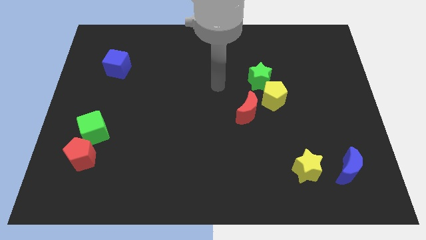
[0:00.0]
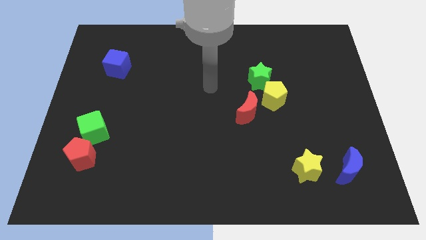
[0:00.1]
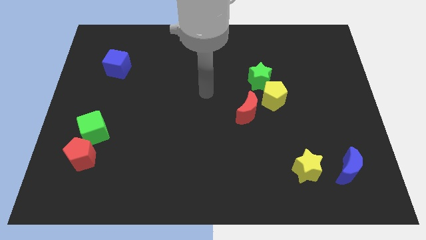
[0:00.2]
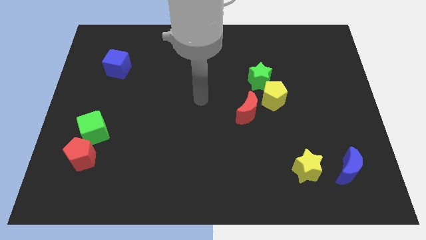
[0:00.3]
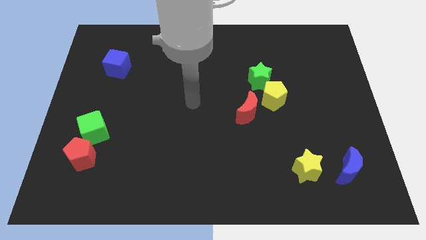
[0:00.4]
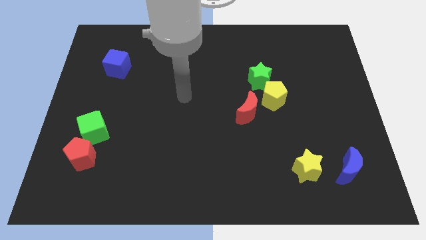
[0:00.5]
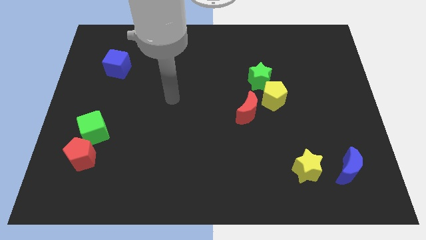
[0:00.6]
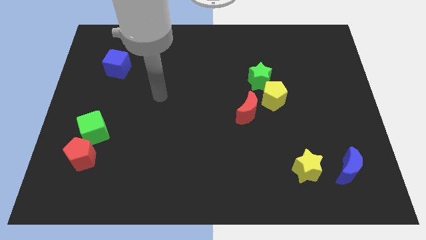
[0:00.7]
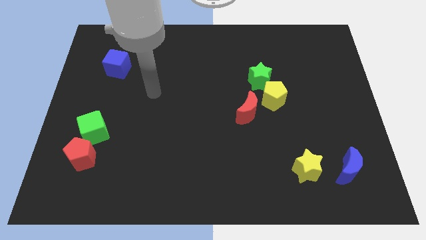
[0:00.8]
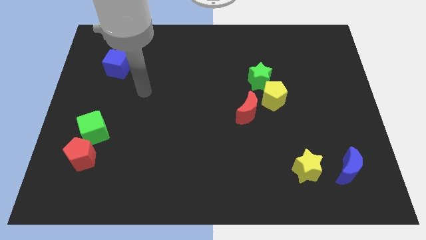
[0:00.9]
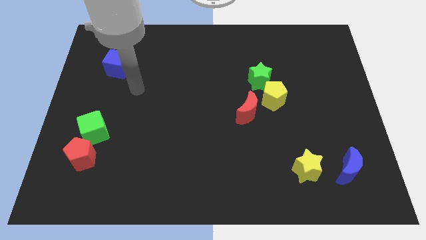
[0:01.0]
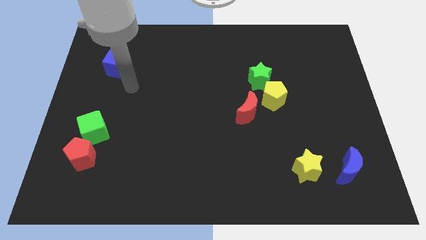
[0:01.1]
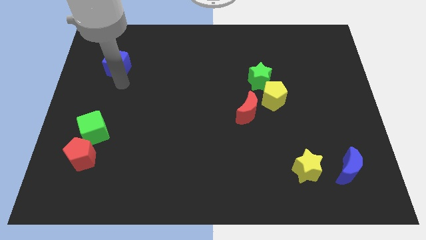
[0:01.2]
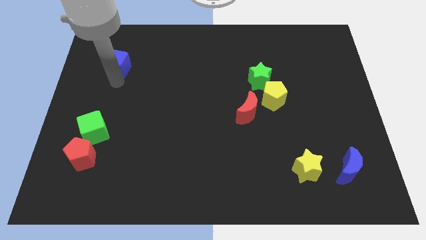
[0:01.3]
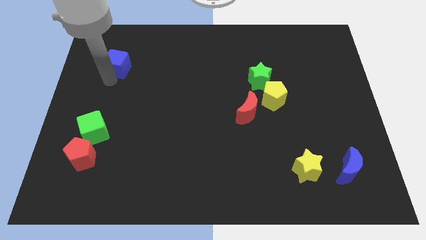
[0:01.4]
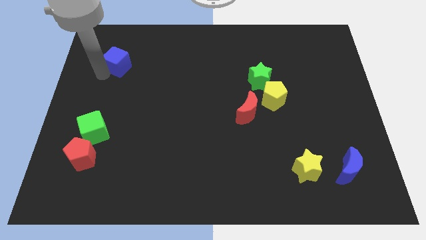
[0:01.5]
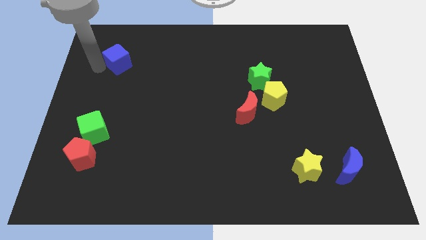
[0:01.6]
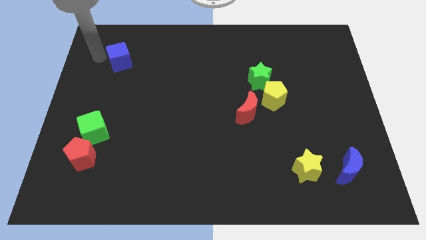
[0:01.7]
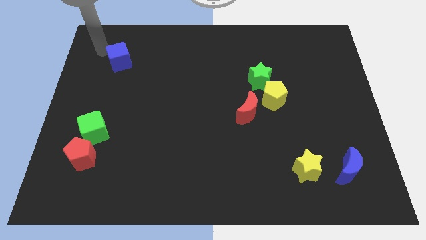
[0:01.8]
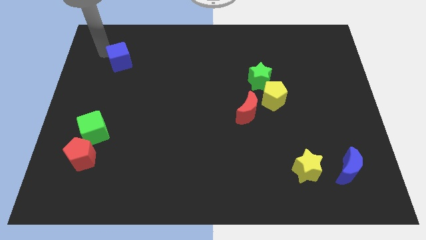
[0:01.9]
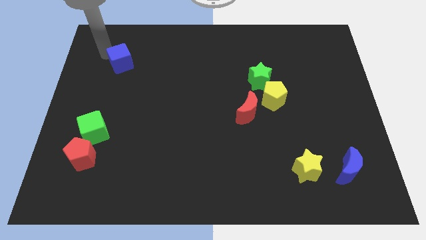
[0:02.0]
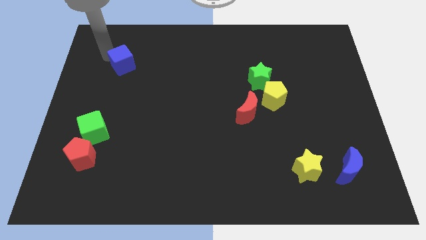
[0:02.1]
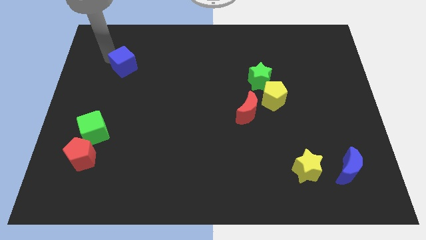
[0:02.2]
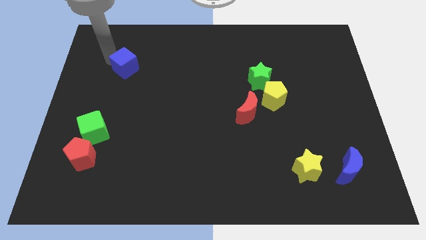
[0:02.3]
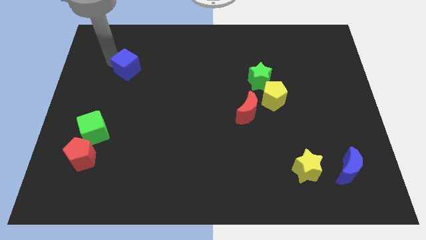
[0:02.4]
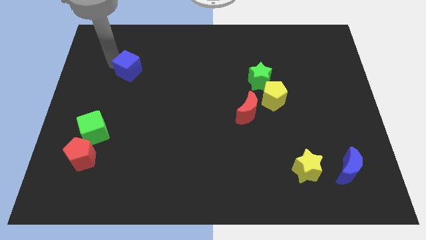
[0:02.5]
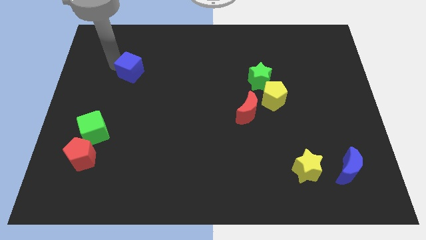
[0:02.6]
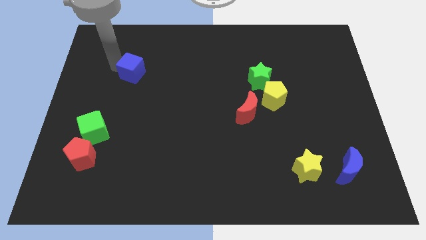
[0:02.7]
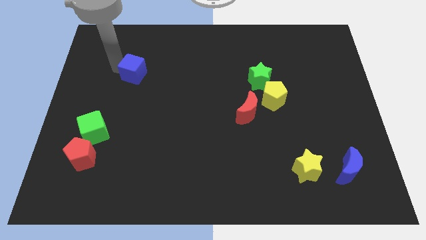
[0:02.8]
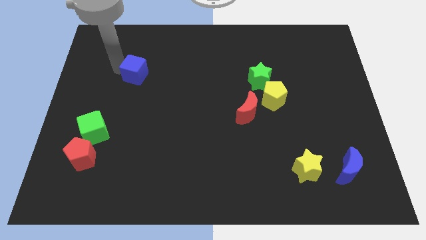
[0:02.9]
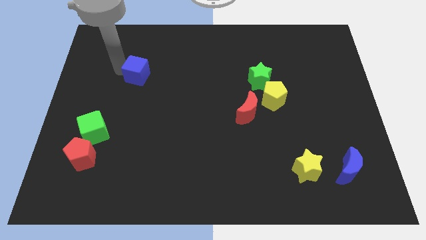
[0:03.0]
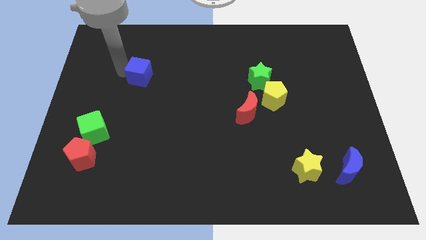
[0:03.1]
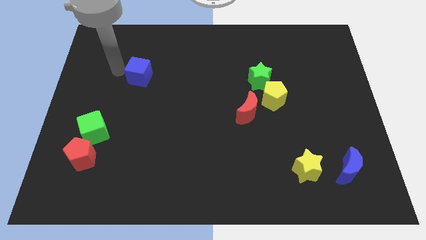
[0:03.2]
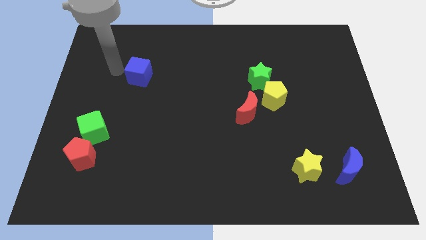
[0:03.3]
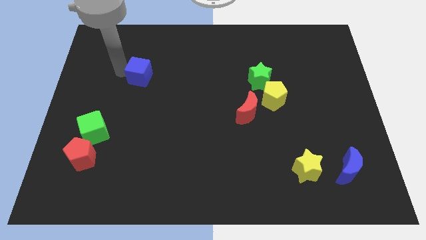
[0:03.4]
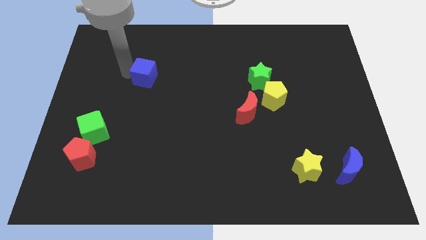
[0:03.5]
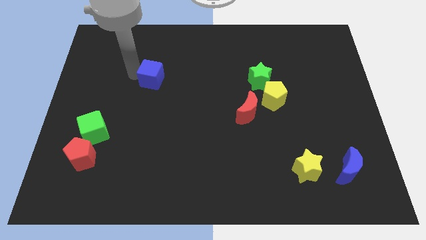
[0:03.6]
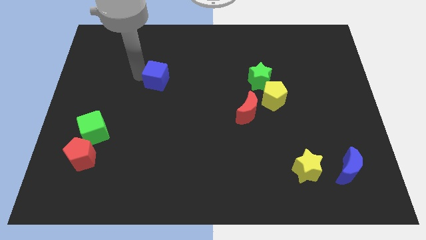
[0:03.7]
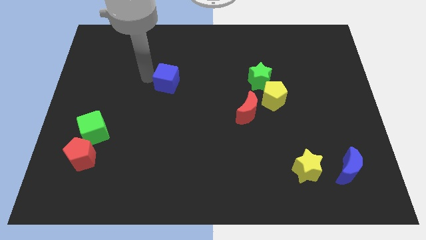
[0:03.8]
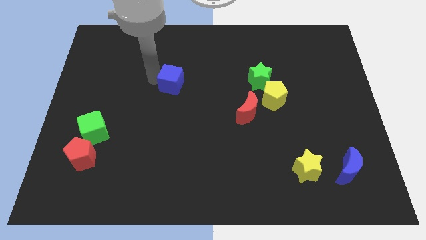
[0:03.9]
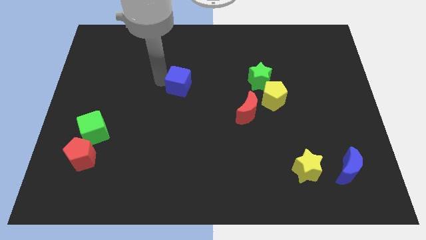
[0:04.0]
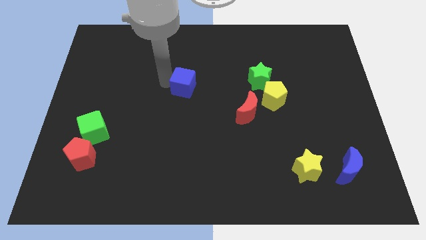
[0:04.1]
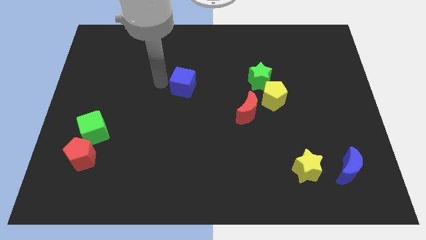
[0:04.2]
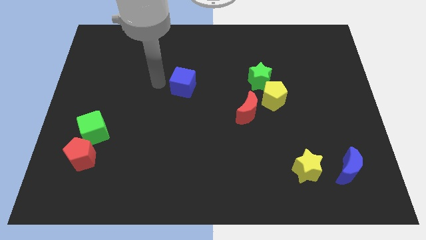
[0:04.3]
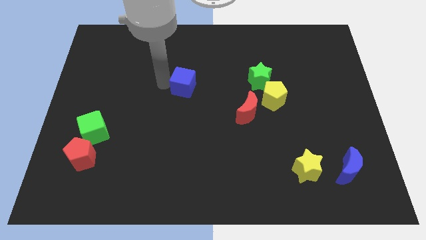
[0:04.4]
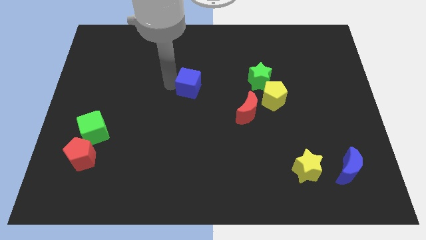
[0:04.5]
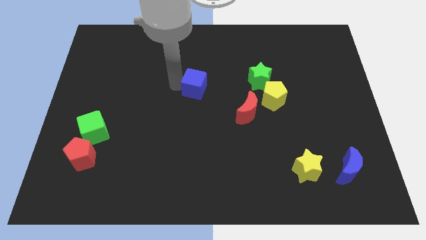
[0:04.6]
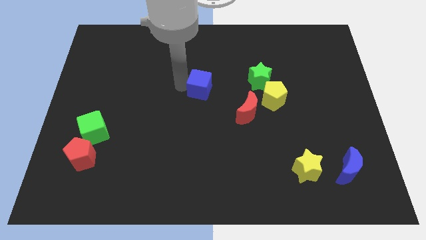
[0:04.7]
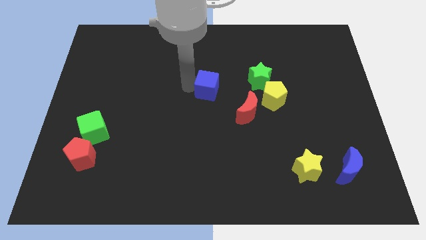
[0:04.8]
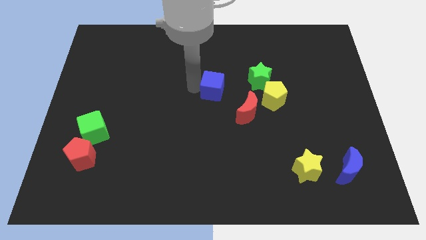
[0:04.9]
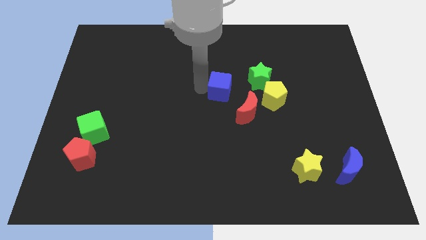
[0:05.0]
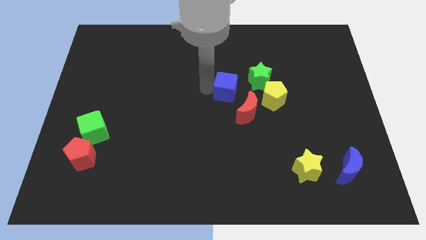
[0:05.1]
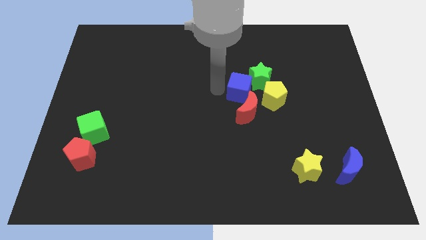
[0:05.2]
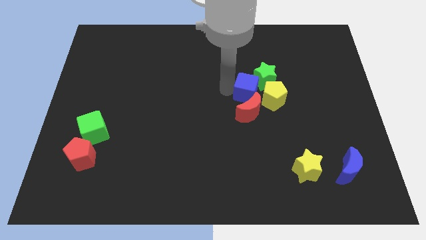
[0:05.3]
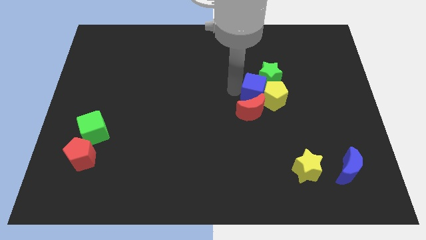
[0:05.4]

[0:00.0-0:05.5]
put the blue cube to the yellow pentagon

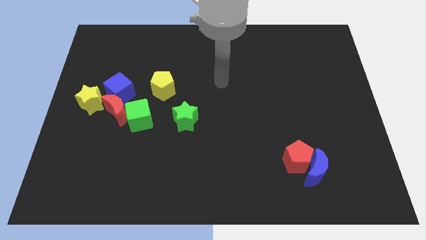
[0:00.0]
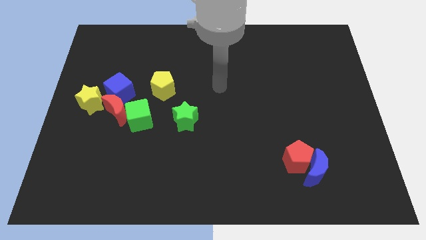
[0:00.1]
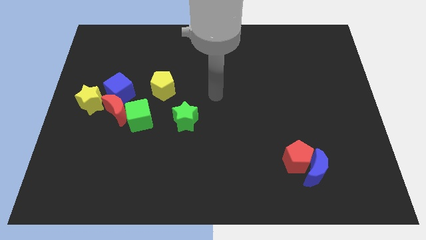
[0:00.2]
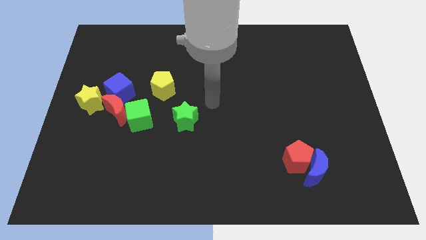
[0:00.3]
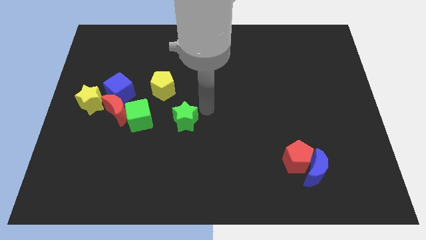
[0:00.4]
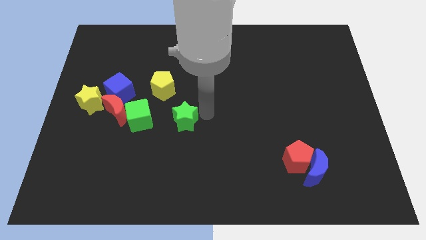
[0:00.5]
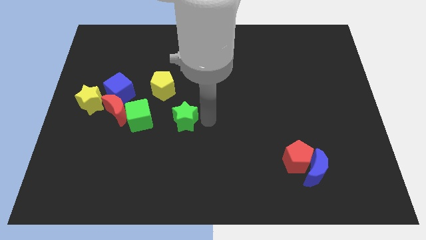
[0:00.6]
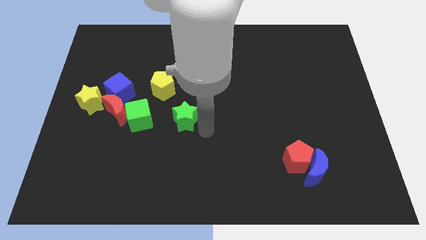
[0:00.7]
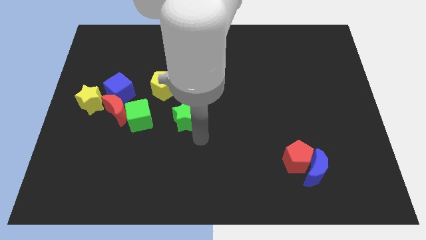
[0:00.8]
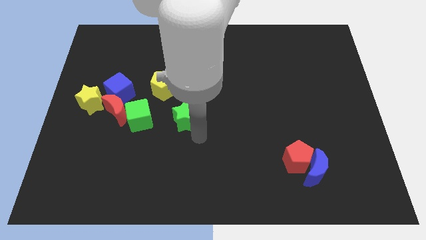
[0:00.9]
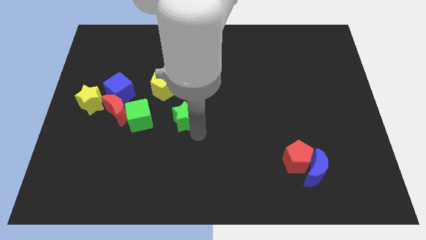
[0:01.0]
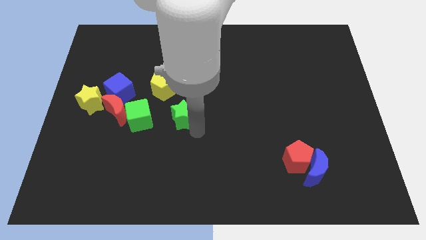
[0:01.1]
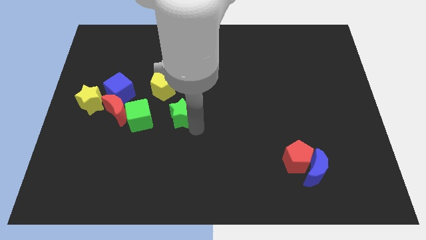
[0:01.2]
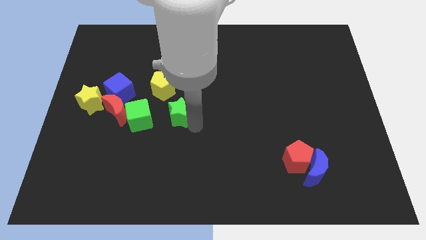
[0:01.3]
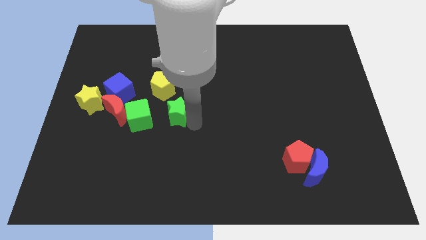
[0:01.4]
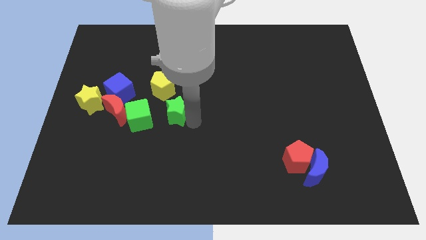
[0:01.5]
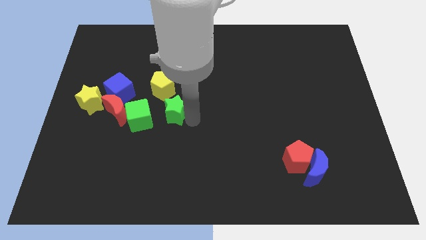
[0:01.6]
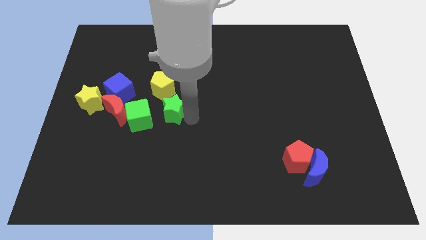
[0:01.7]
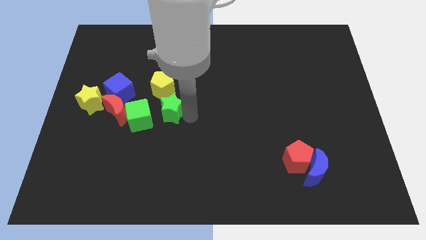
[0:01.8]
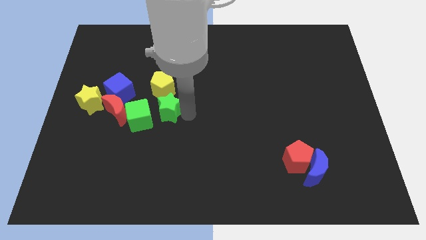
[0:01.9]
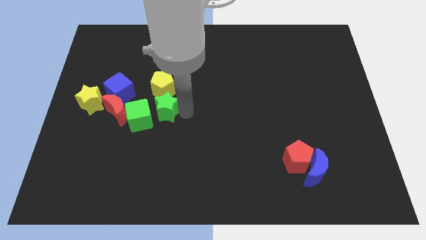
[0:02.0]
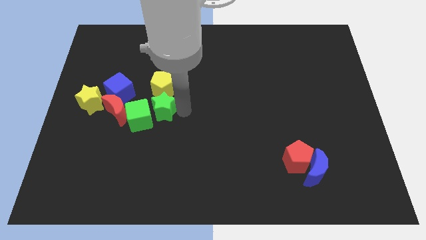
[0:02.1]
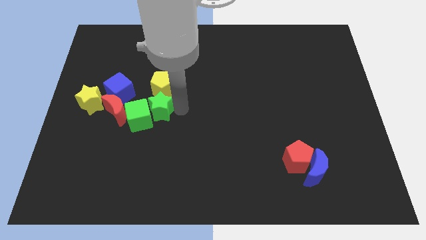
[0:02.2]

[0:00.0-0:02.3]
slide the green star towards the yellow pentagon
